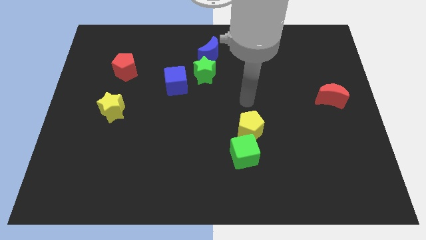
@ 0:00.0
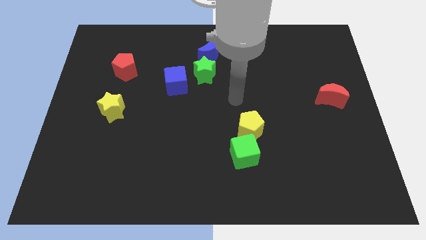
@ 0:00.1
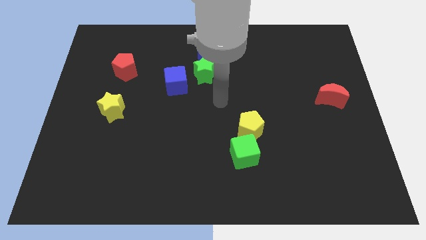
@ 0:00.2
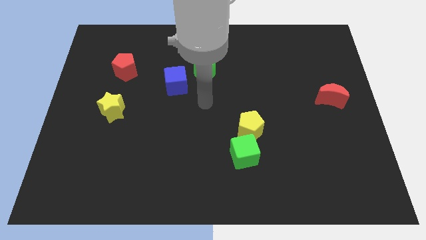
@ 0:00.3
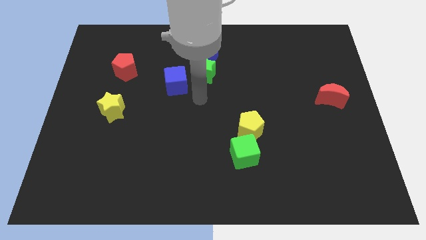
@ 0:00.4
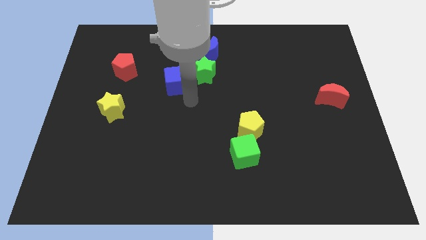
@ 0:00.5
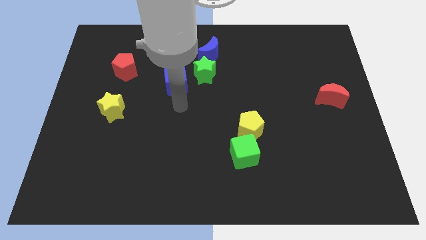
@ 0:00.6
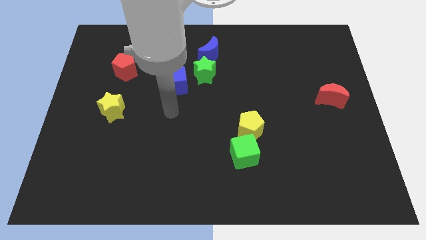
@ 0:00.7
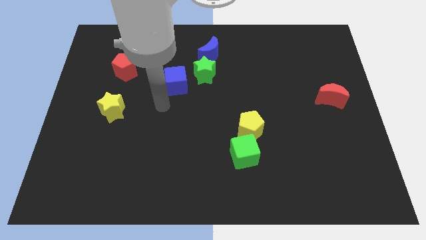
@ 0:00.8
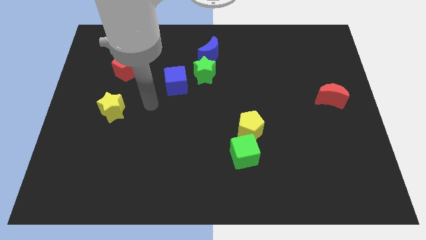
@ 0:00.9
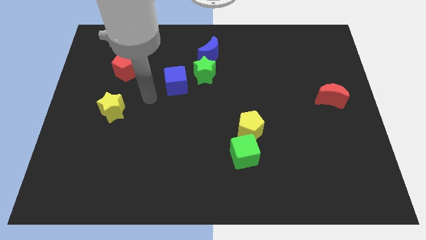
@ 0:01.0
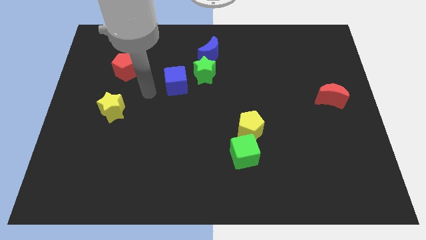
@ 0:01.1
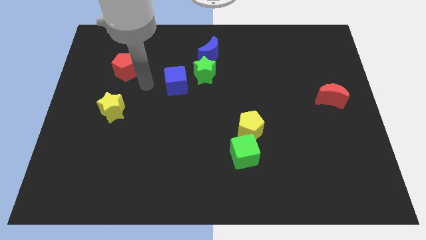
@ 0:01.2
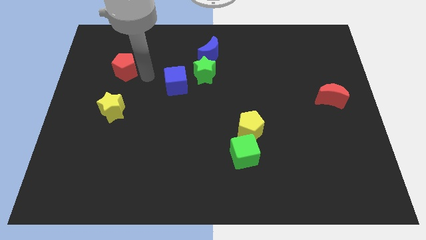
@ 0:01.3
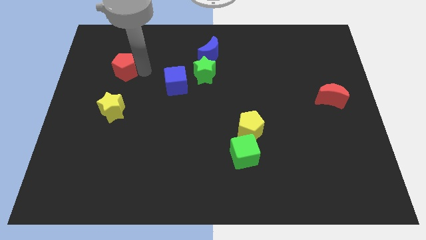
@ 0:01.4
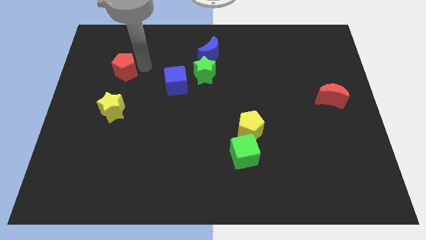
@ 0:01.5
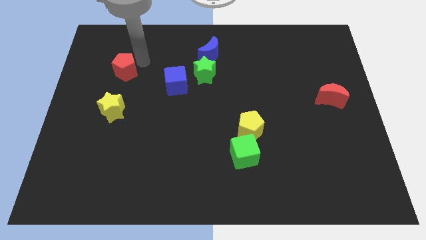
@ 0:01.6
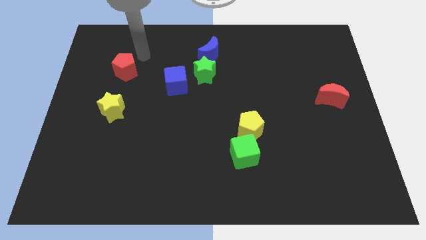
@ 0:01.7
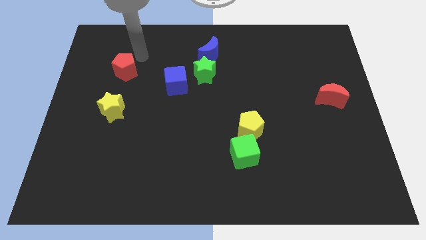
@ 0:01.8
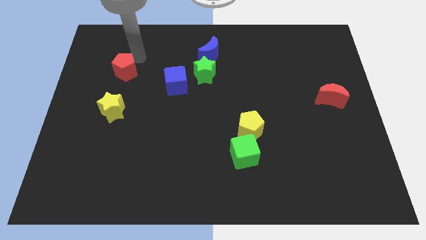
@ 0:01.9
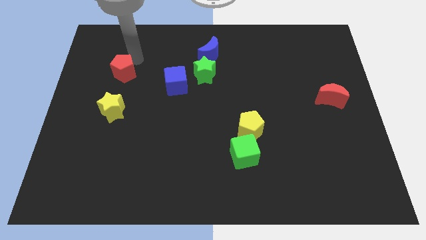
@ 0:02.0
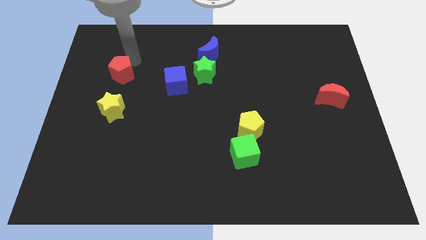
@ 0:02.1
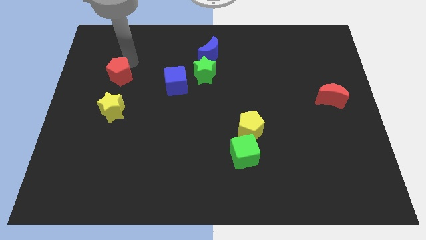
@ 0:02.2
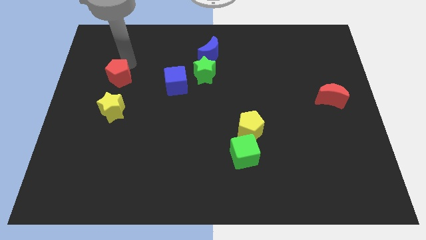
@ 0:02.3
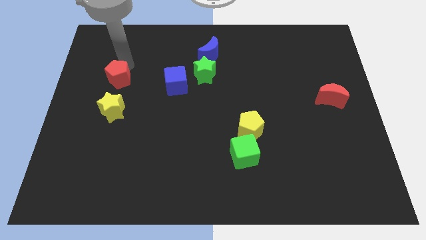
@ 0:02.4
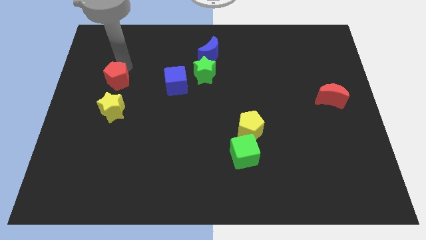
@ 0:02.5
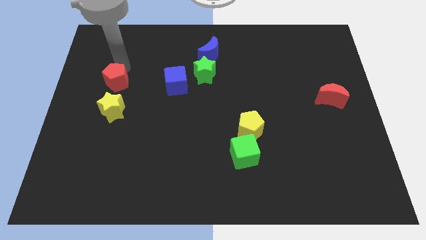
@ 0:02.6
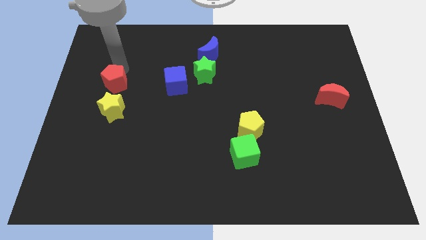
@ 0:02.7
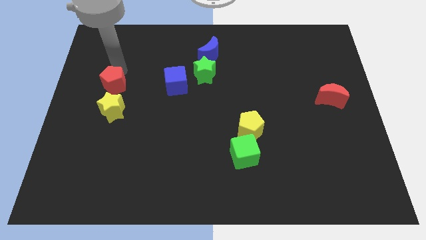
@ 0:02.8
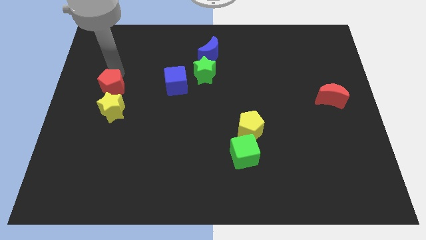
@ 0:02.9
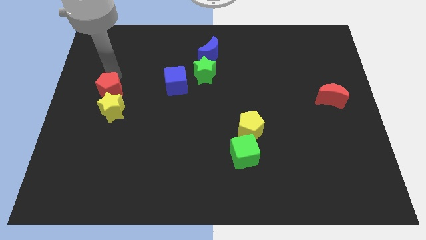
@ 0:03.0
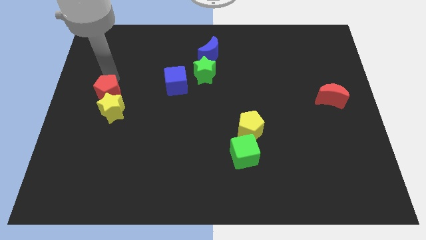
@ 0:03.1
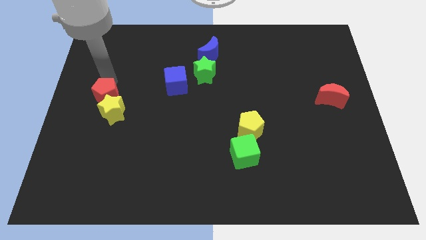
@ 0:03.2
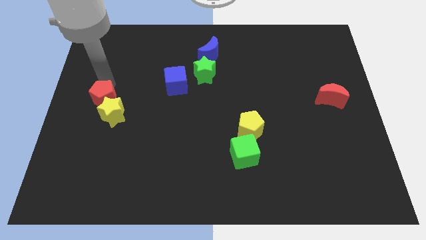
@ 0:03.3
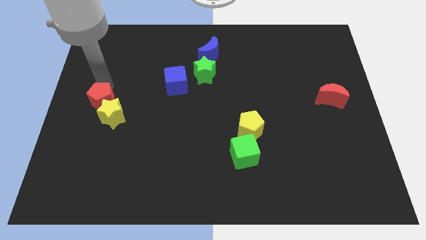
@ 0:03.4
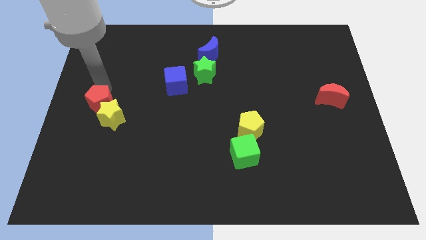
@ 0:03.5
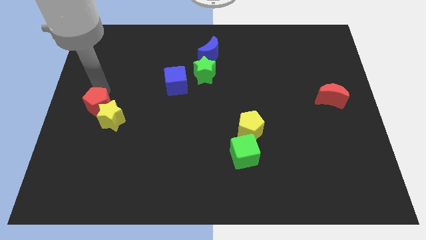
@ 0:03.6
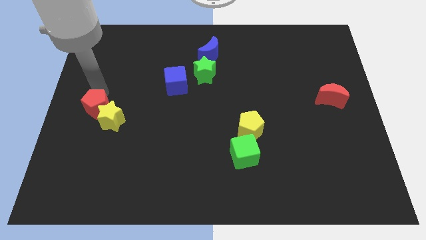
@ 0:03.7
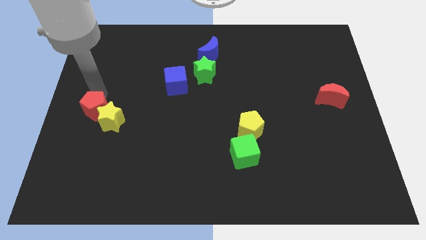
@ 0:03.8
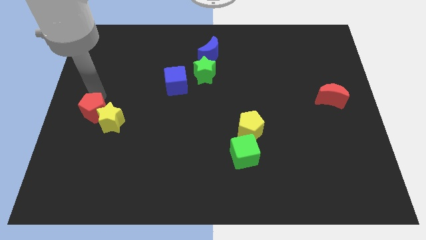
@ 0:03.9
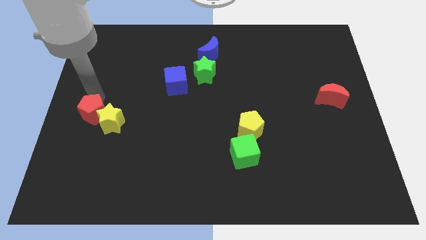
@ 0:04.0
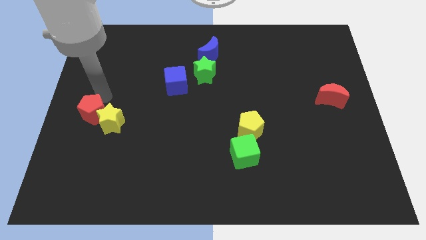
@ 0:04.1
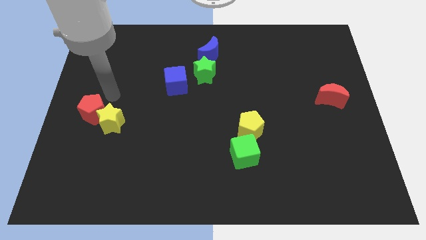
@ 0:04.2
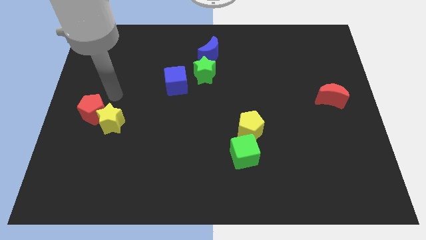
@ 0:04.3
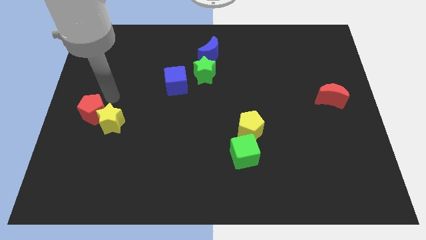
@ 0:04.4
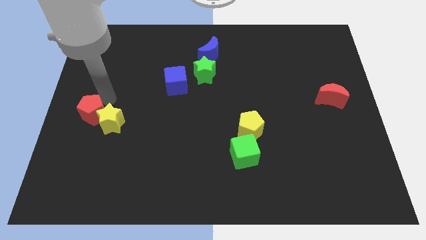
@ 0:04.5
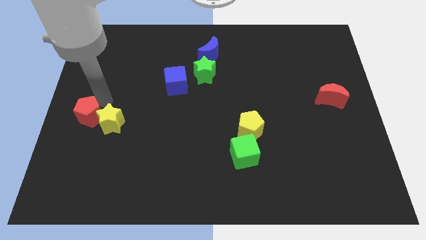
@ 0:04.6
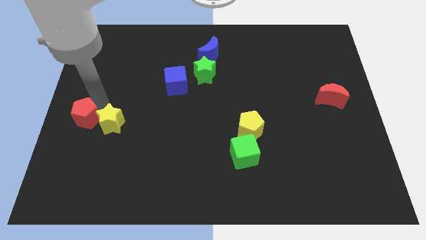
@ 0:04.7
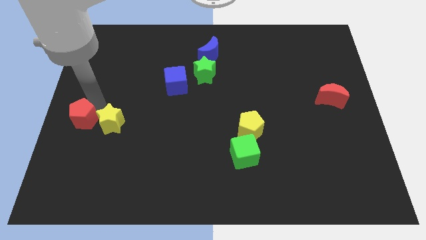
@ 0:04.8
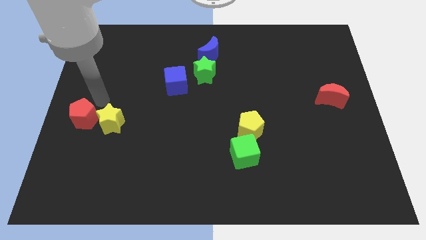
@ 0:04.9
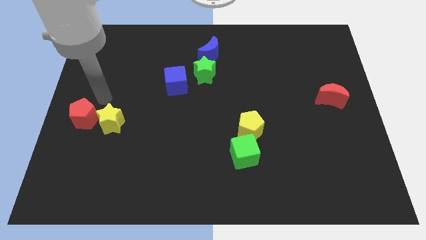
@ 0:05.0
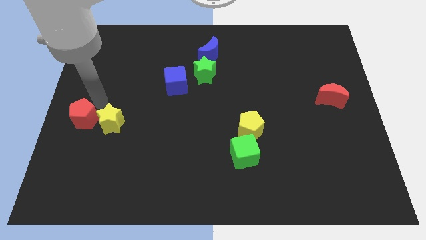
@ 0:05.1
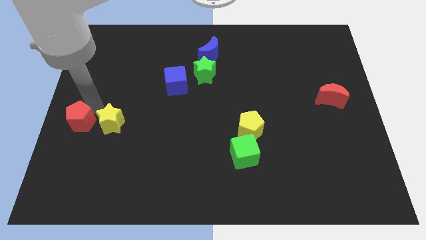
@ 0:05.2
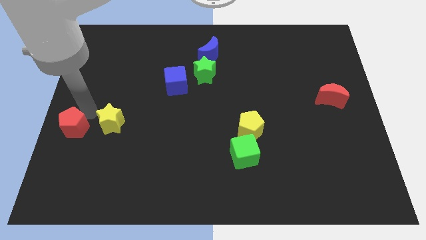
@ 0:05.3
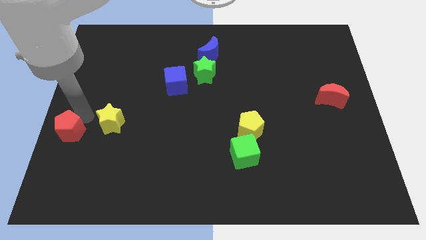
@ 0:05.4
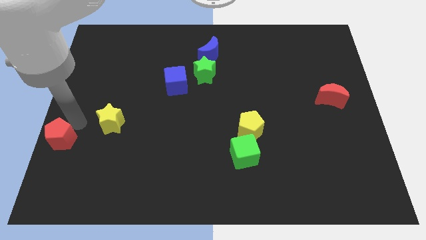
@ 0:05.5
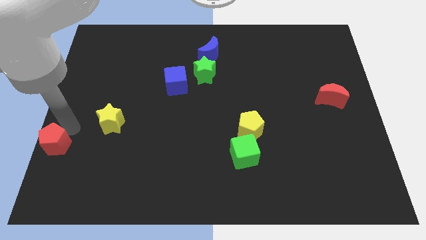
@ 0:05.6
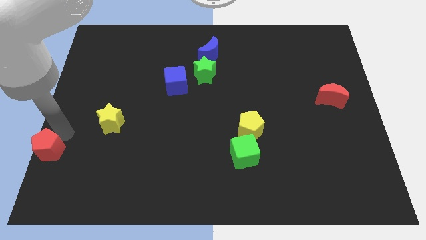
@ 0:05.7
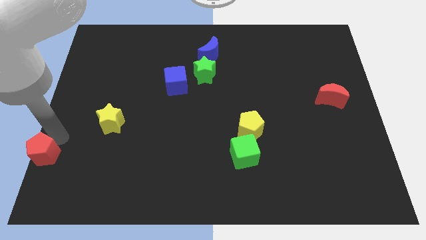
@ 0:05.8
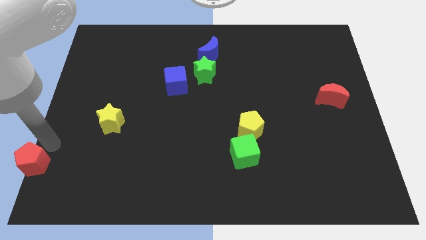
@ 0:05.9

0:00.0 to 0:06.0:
put the red pentagon to the bottom left of the board
